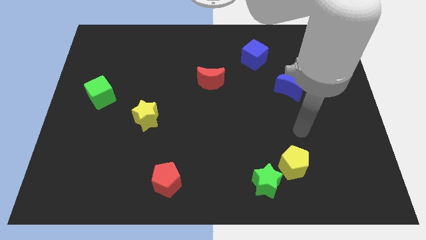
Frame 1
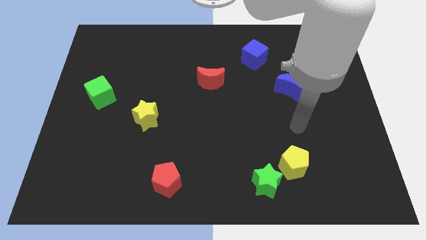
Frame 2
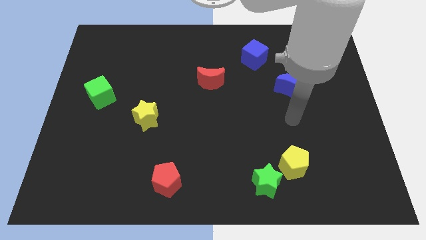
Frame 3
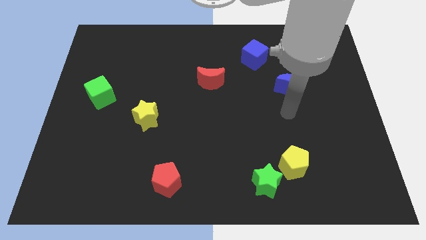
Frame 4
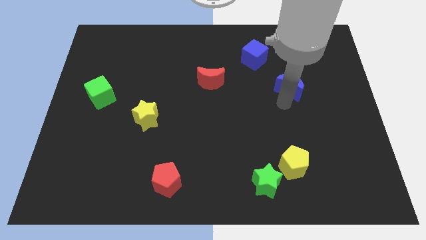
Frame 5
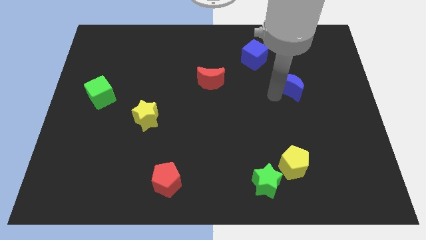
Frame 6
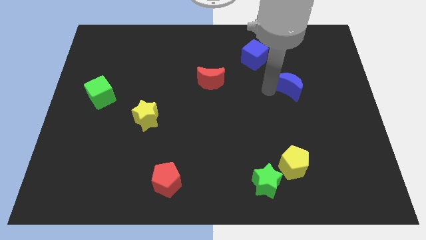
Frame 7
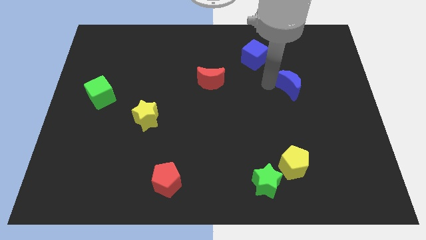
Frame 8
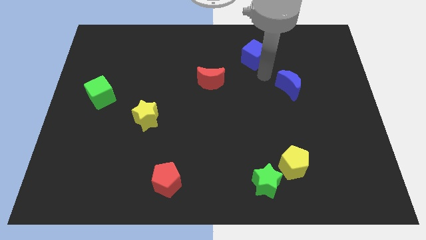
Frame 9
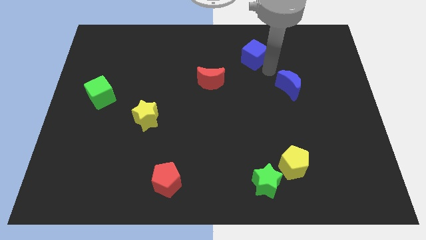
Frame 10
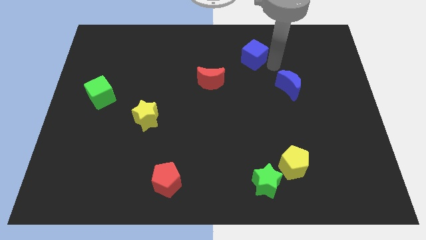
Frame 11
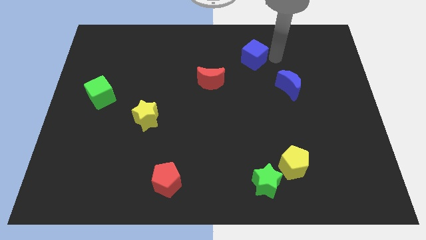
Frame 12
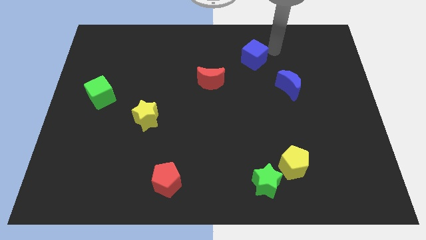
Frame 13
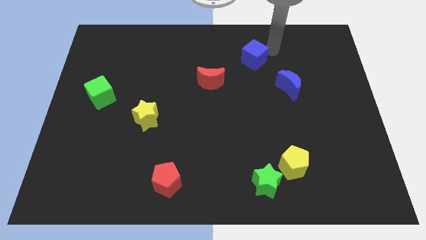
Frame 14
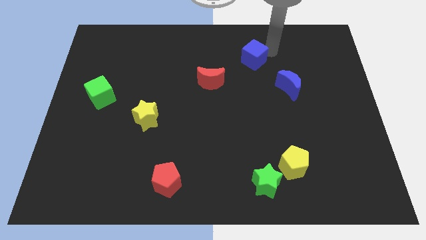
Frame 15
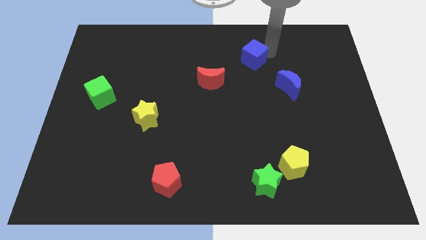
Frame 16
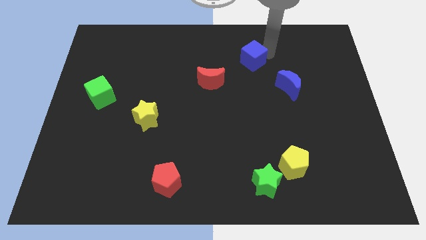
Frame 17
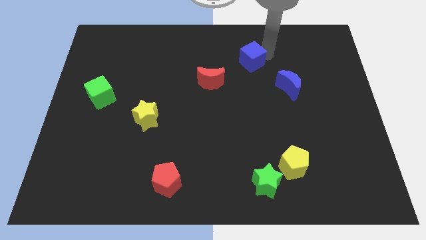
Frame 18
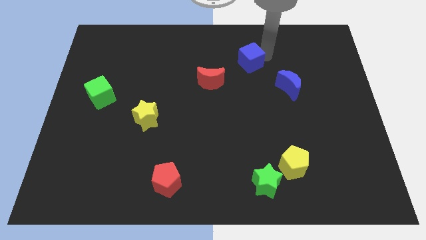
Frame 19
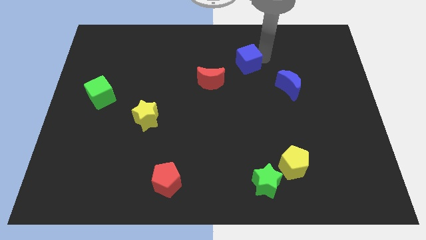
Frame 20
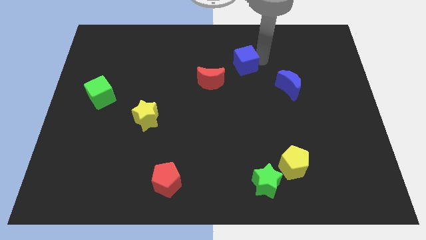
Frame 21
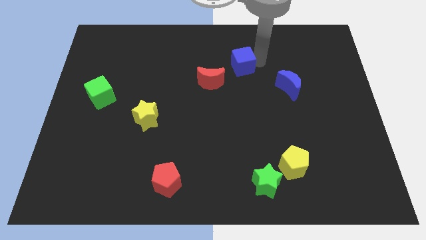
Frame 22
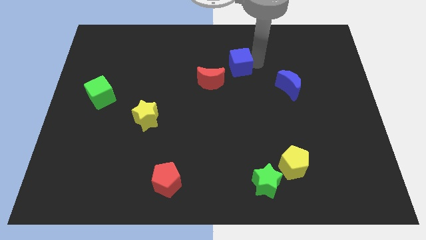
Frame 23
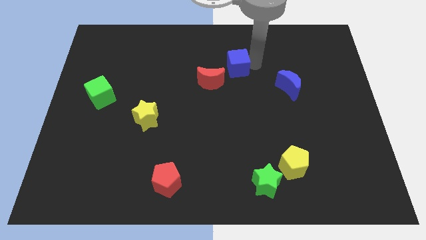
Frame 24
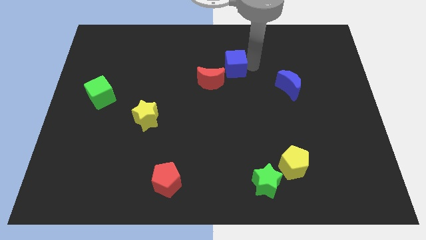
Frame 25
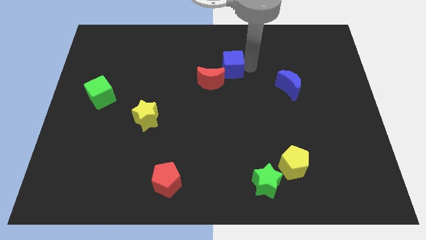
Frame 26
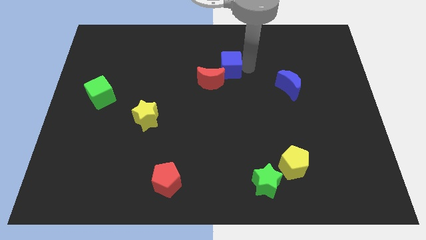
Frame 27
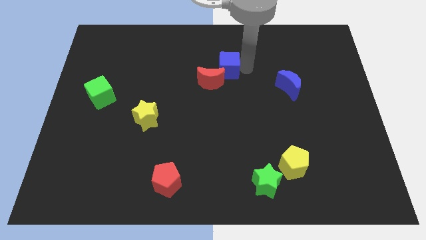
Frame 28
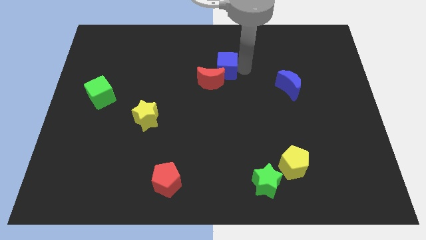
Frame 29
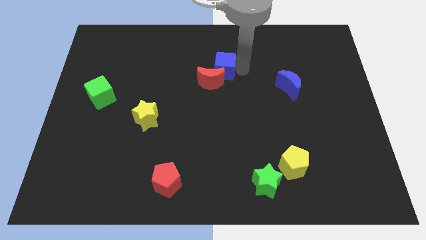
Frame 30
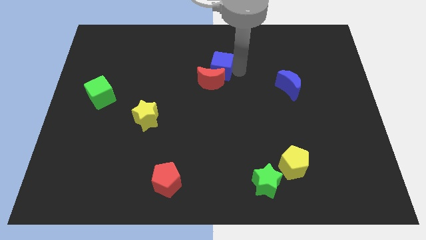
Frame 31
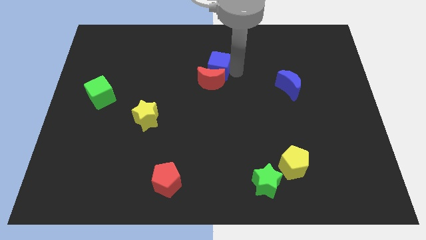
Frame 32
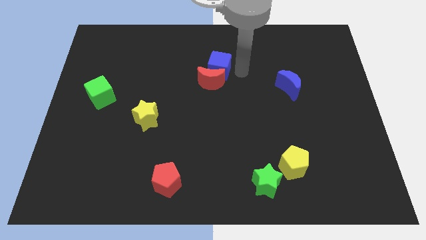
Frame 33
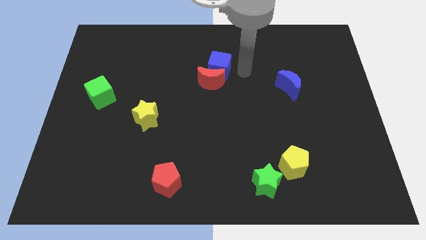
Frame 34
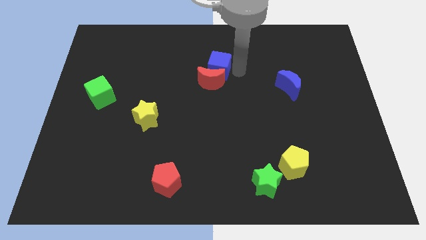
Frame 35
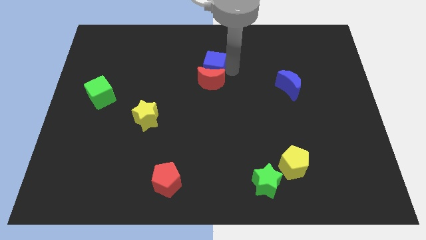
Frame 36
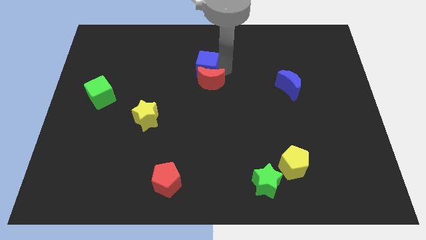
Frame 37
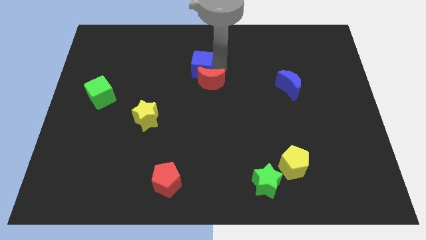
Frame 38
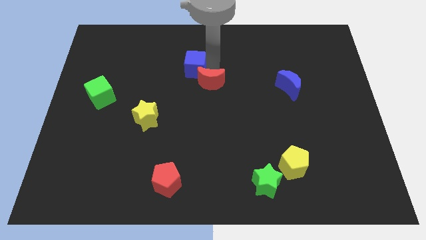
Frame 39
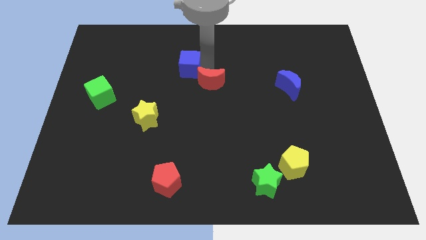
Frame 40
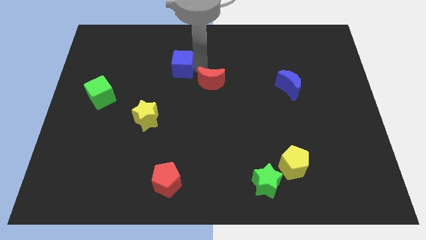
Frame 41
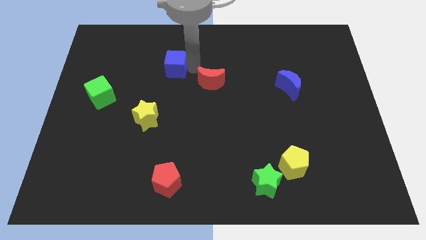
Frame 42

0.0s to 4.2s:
push the blue cube left

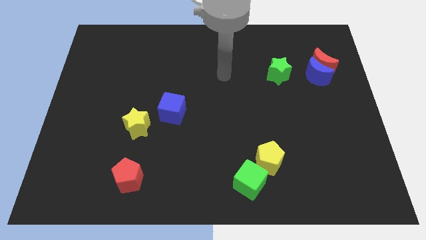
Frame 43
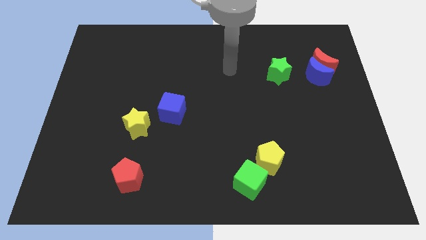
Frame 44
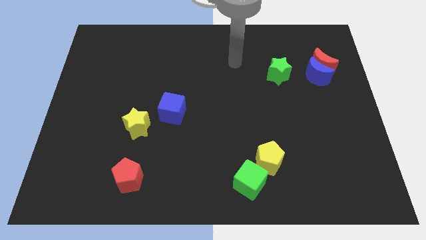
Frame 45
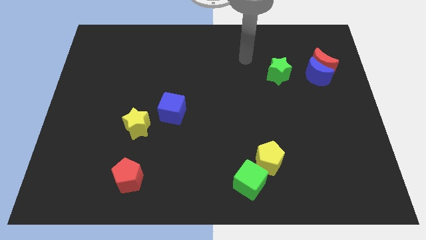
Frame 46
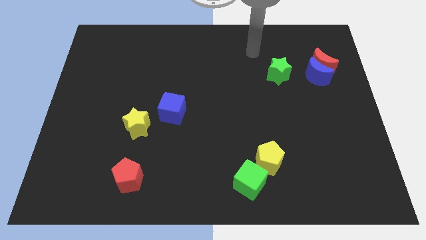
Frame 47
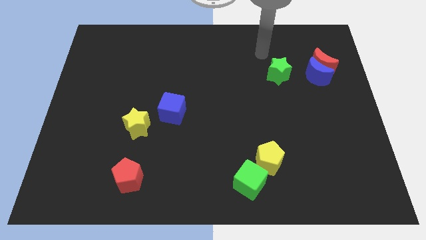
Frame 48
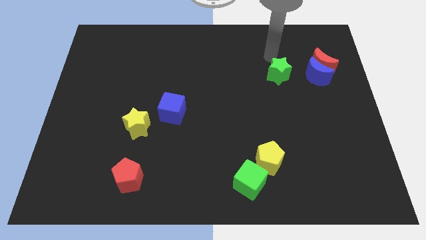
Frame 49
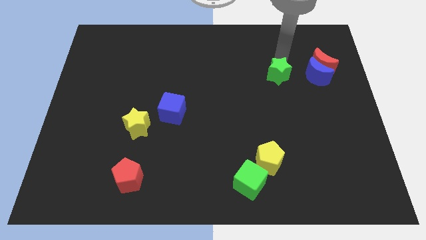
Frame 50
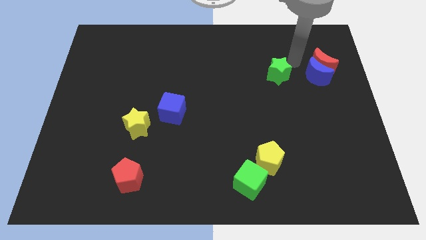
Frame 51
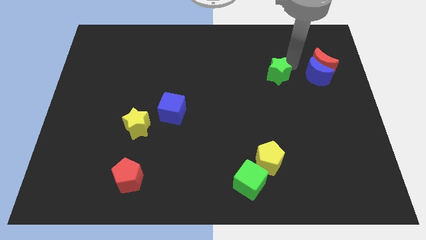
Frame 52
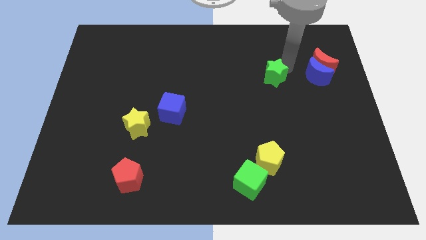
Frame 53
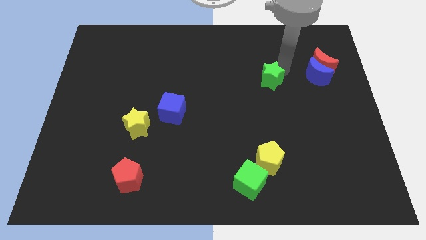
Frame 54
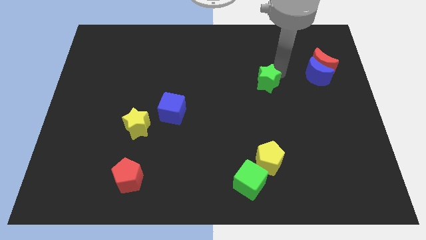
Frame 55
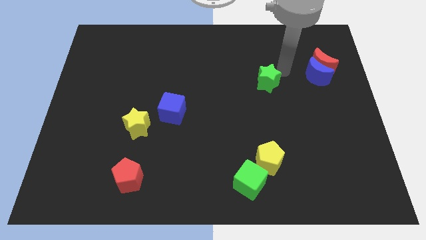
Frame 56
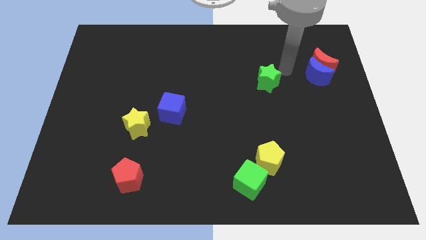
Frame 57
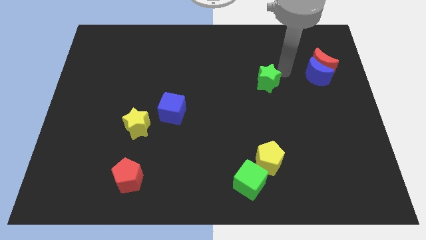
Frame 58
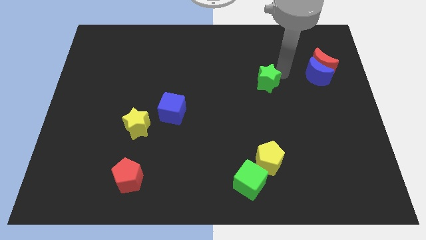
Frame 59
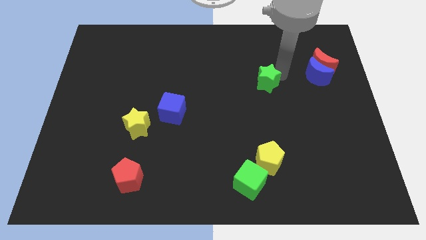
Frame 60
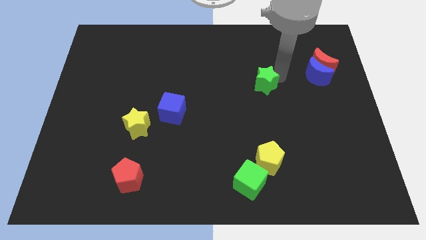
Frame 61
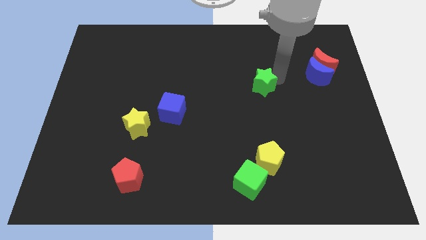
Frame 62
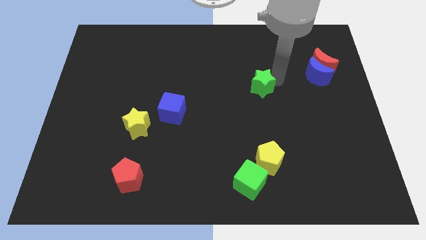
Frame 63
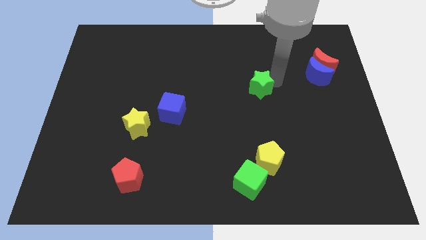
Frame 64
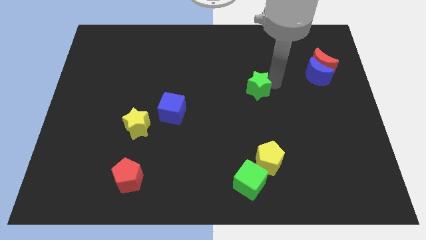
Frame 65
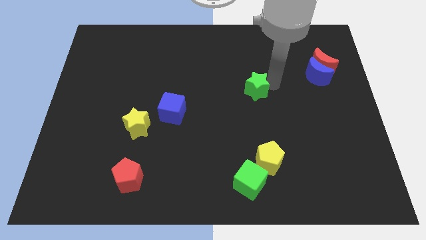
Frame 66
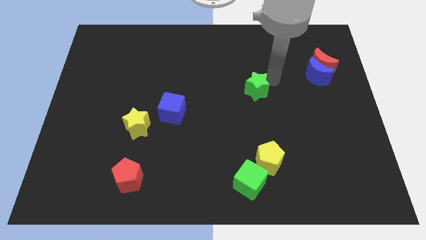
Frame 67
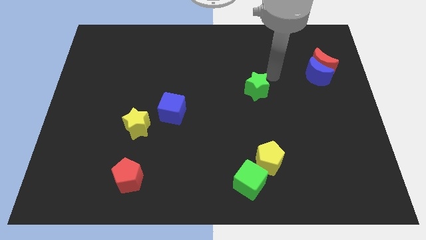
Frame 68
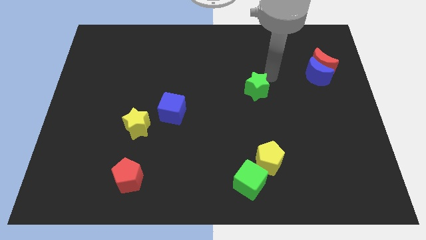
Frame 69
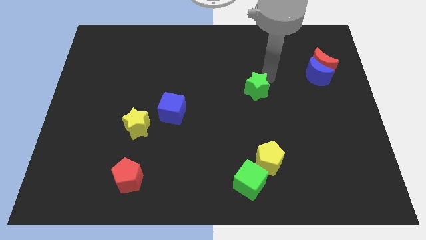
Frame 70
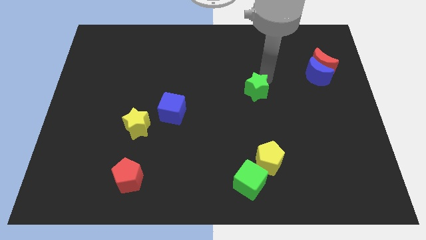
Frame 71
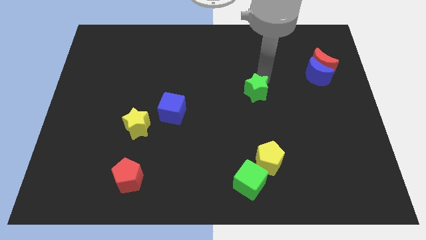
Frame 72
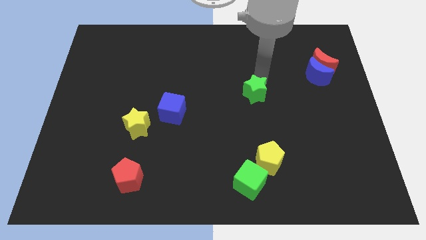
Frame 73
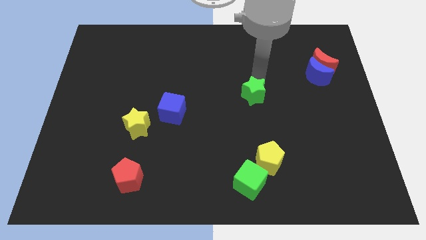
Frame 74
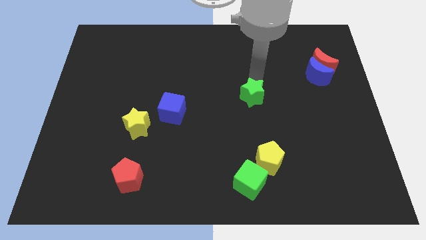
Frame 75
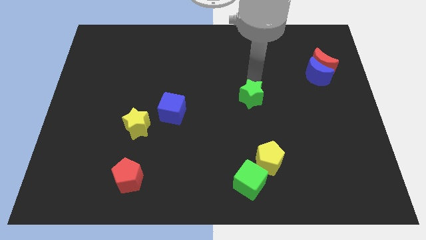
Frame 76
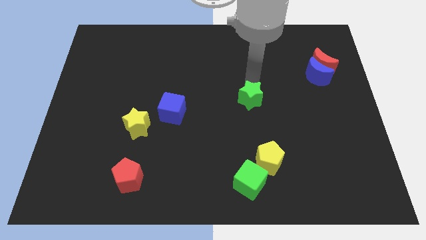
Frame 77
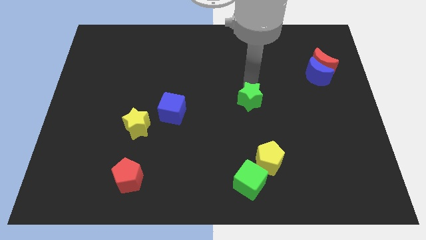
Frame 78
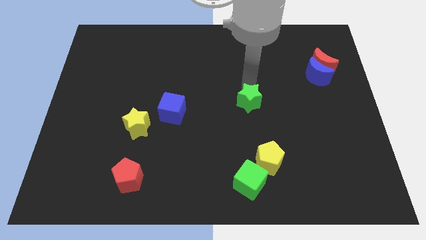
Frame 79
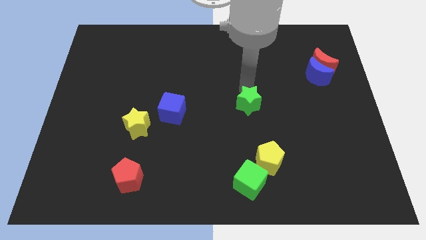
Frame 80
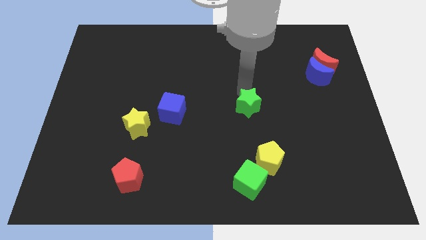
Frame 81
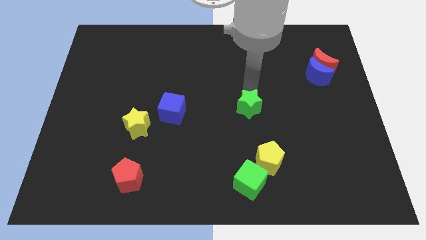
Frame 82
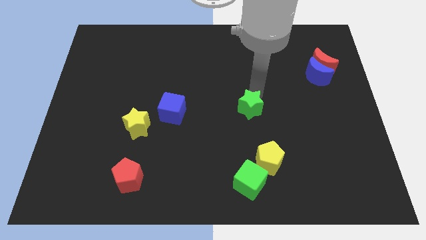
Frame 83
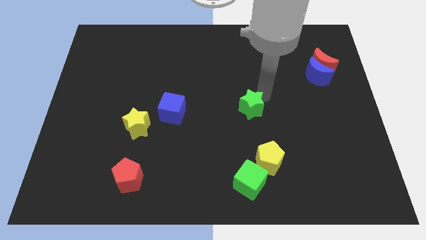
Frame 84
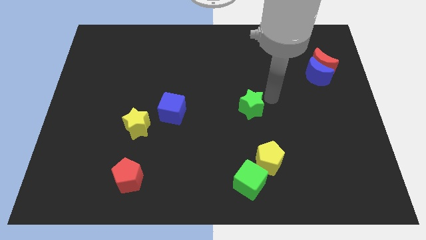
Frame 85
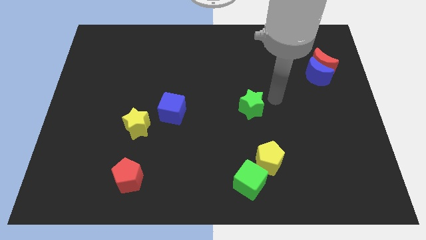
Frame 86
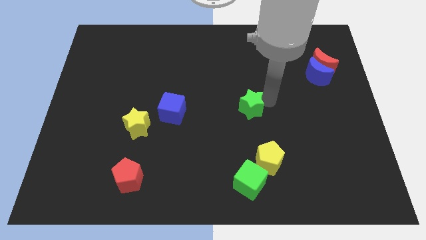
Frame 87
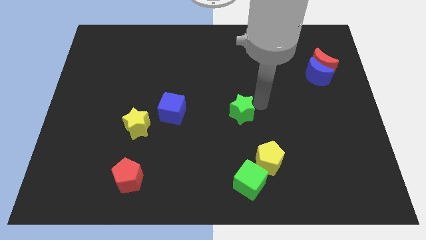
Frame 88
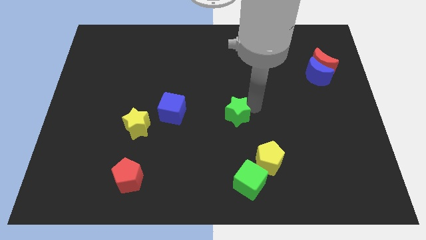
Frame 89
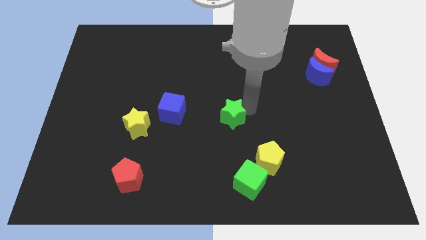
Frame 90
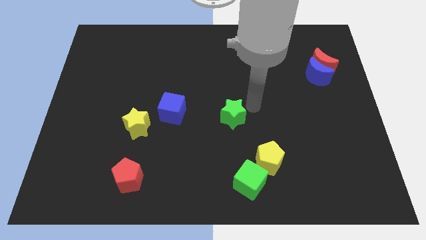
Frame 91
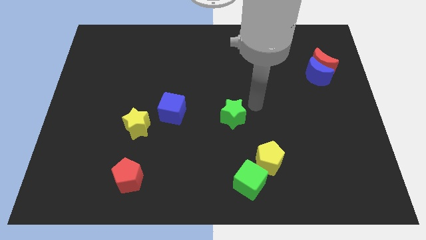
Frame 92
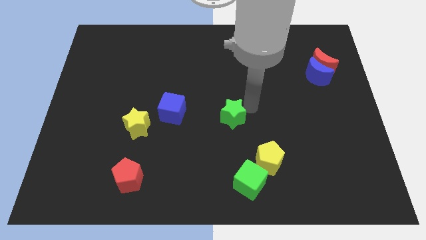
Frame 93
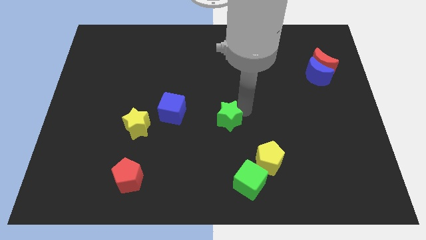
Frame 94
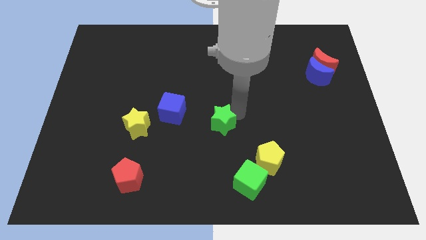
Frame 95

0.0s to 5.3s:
push the green star diagonally down and left
